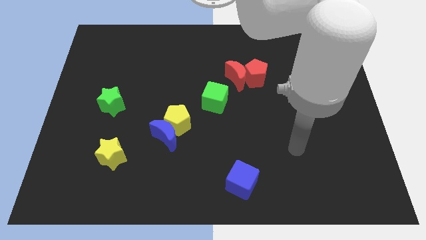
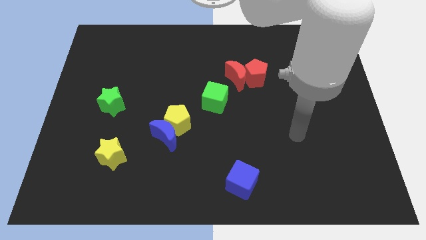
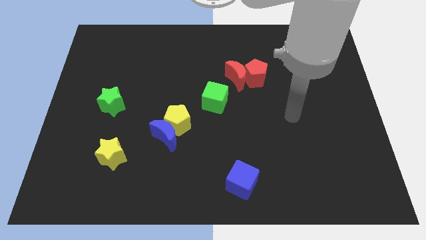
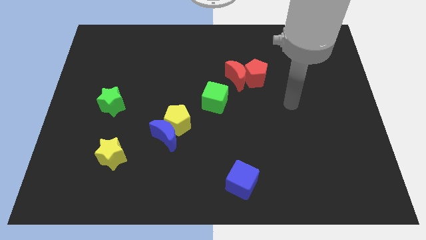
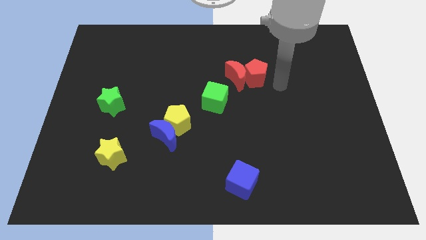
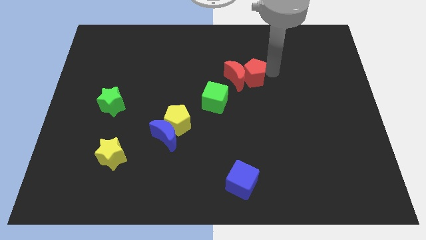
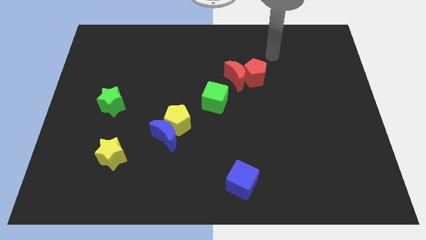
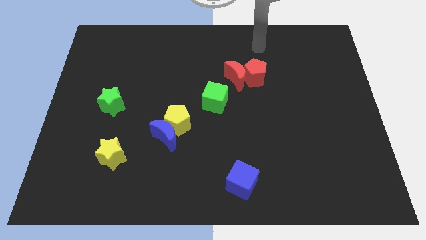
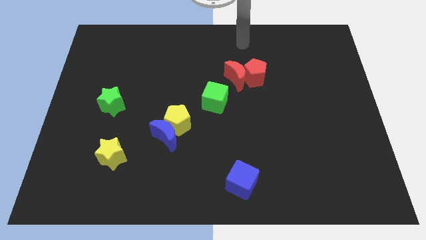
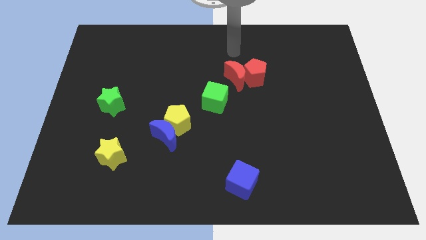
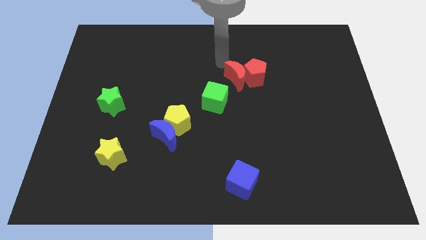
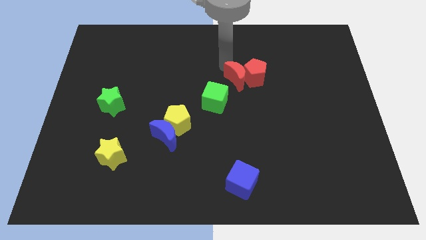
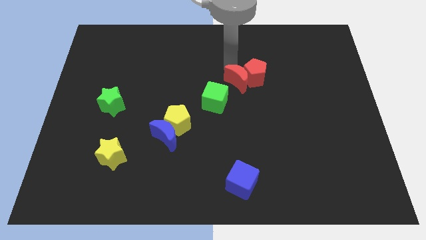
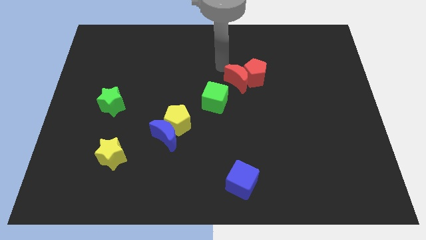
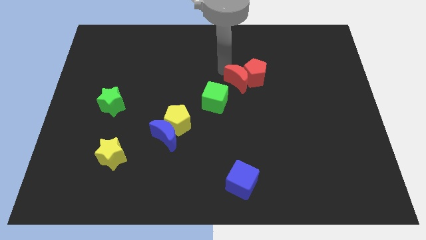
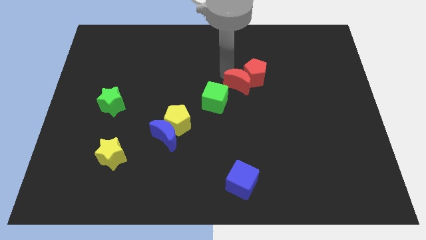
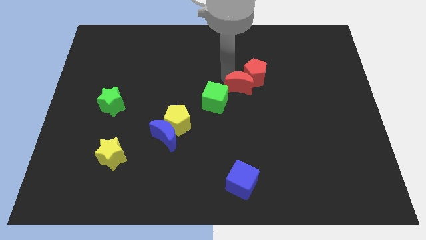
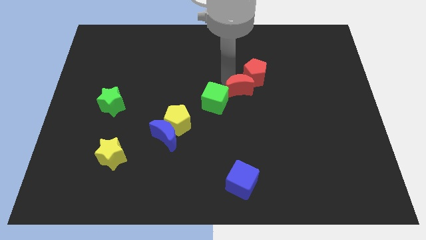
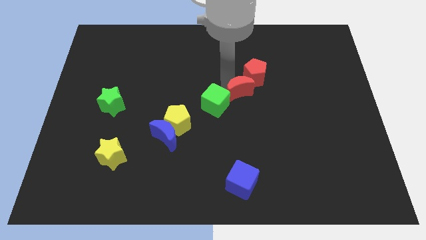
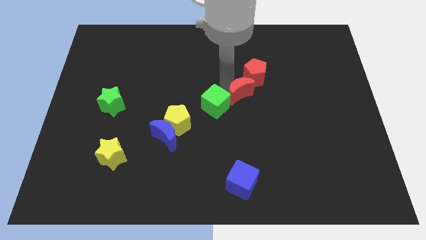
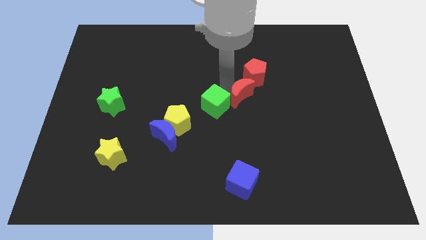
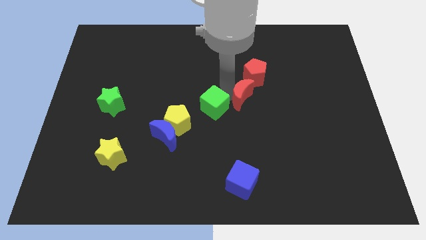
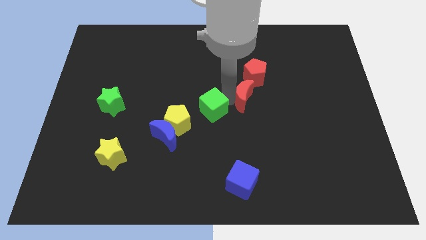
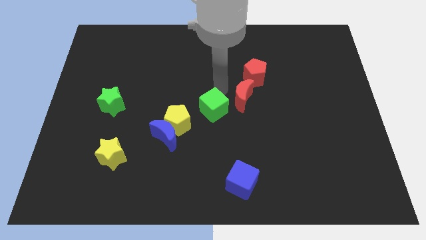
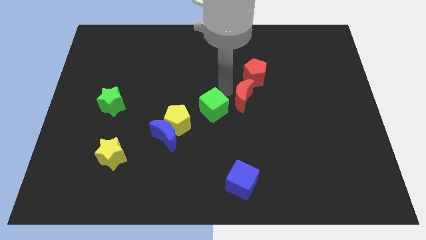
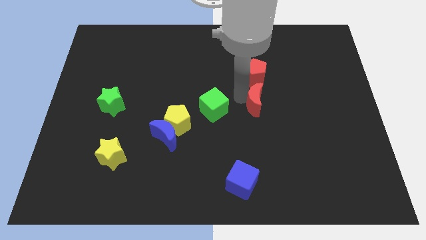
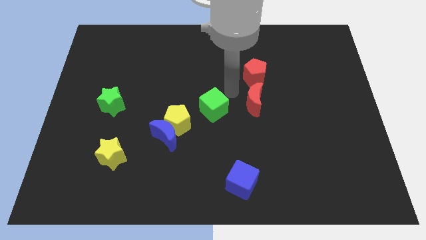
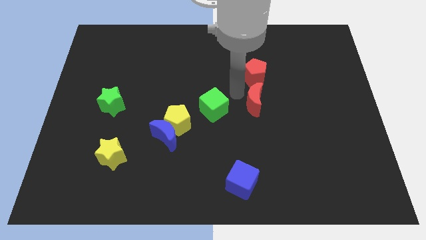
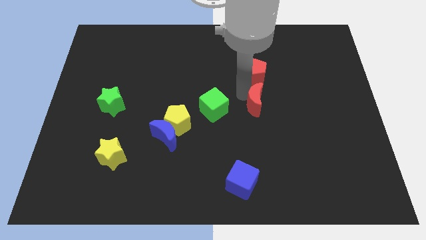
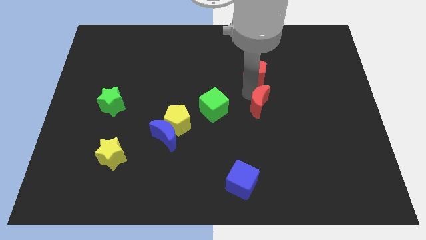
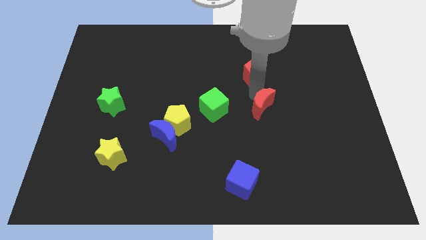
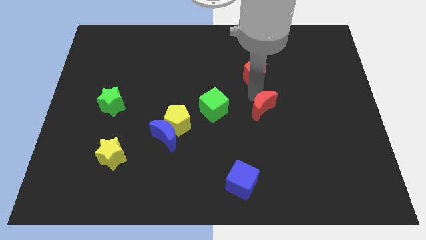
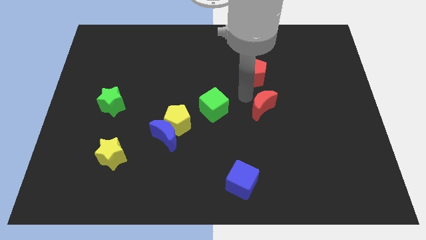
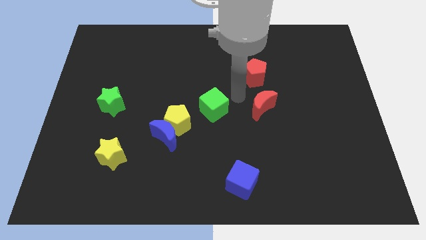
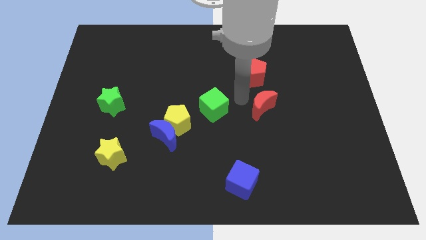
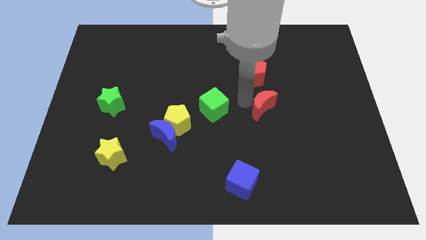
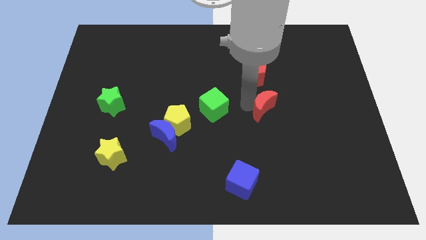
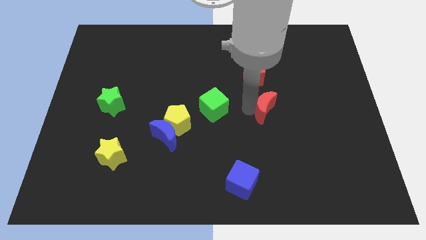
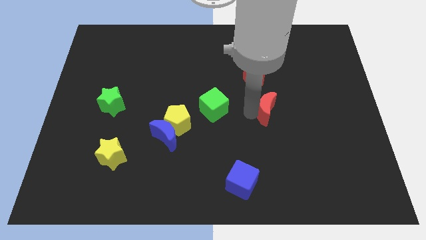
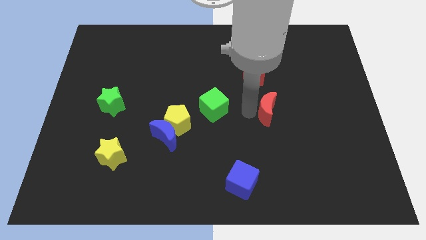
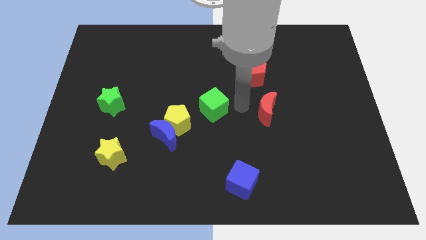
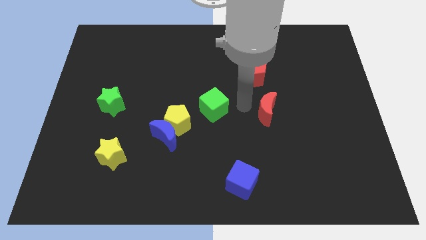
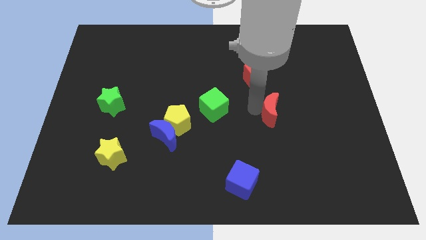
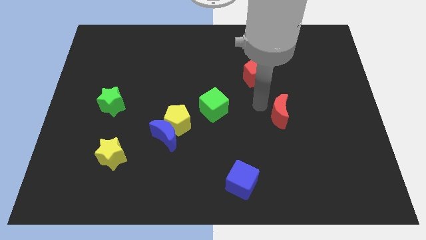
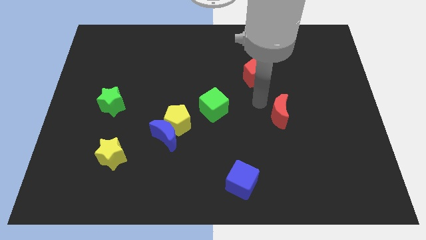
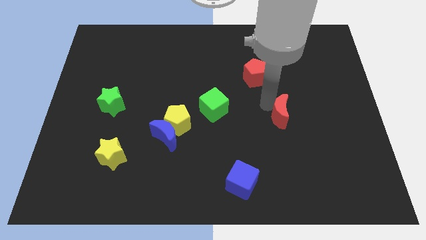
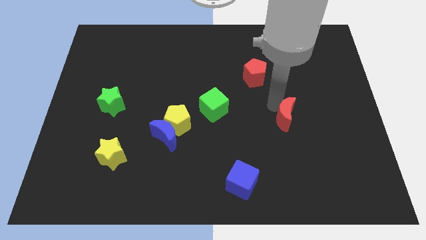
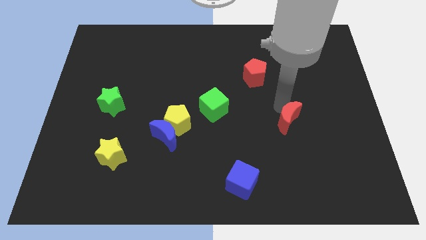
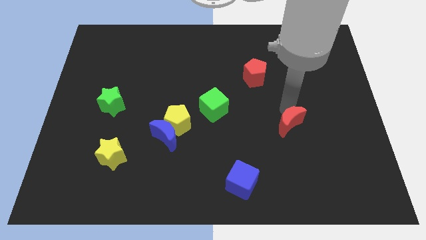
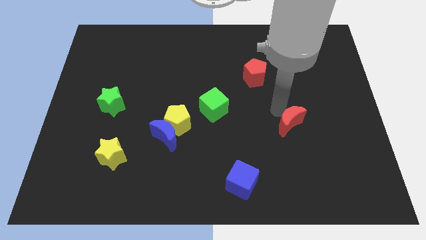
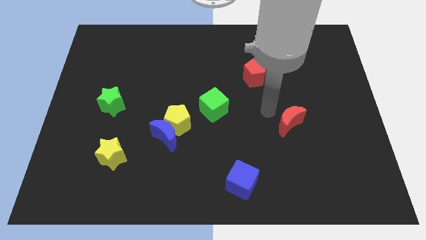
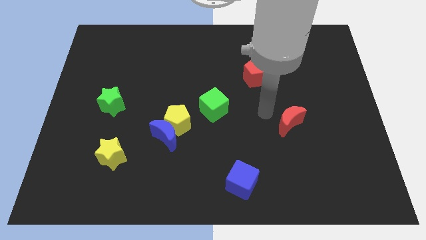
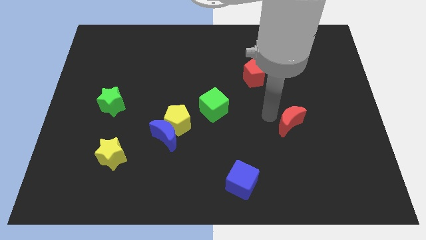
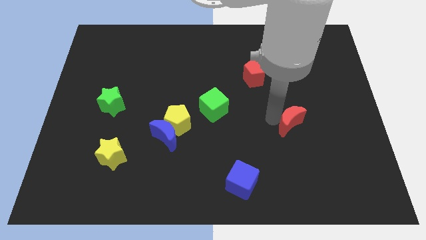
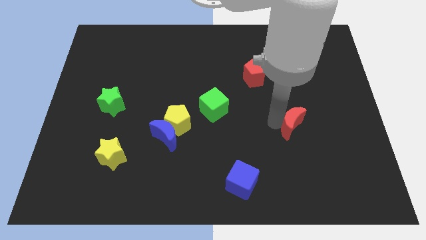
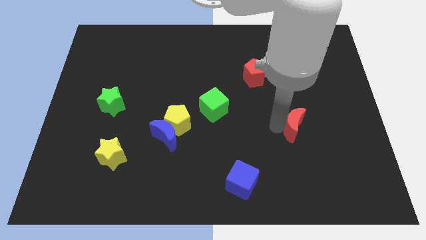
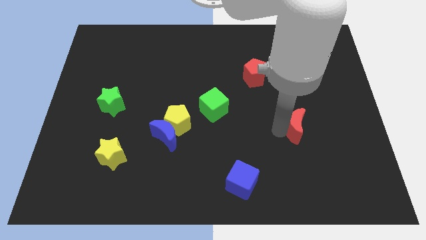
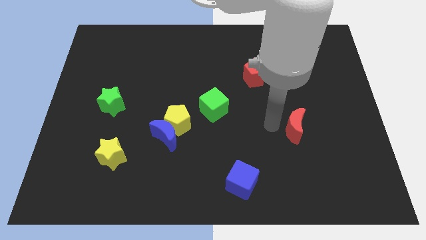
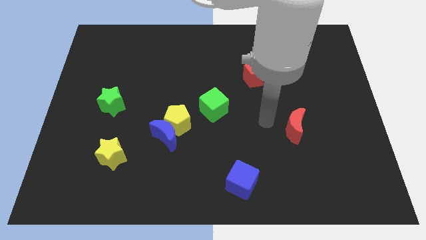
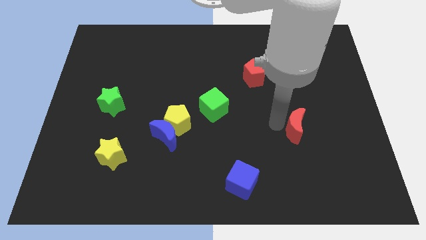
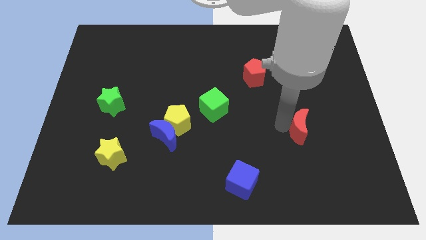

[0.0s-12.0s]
push the red moon diagonally downwards and to the right

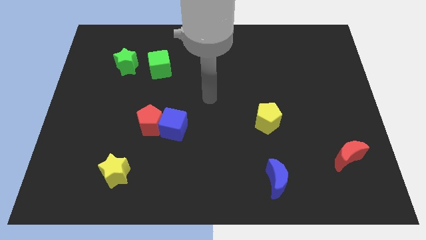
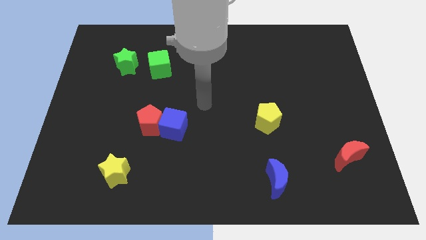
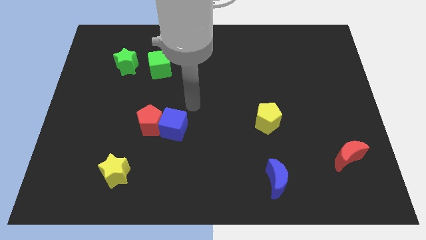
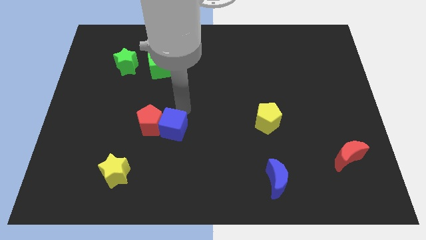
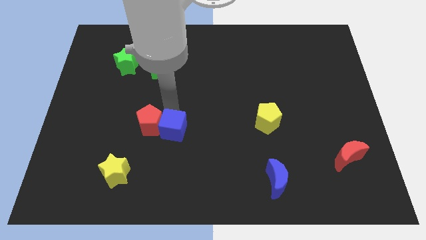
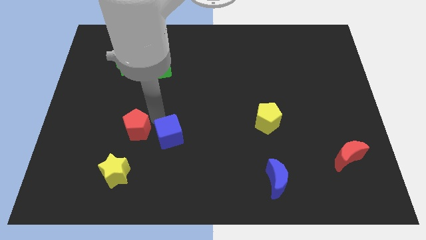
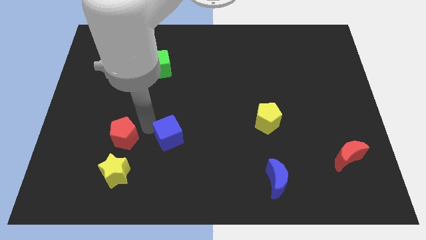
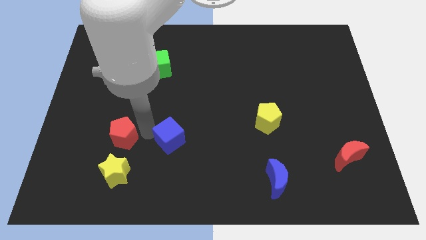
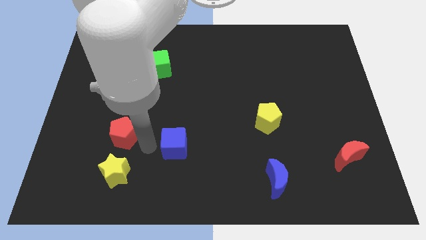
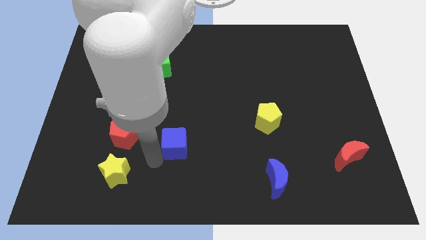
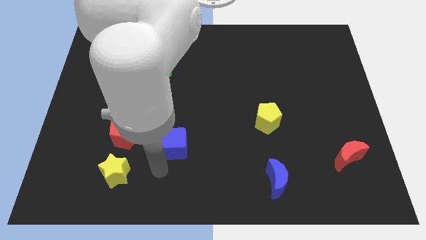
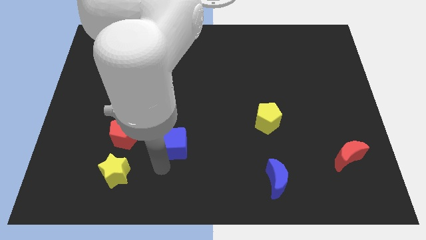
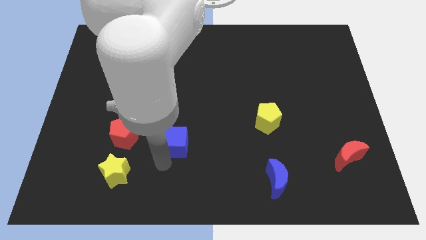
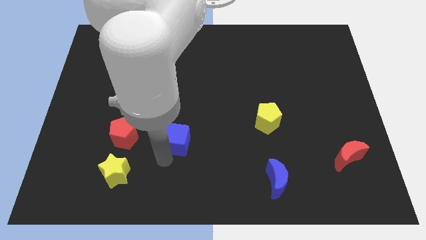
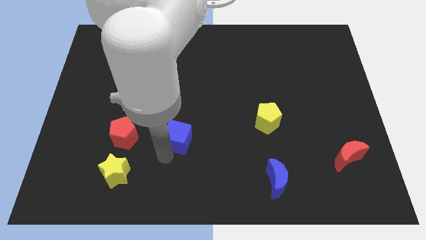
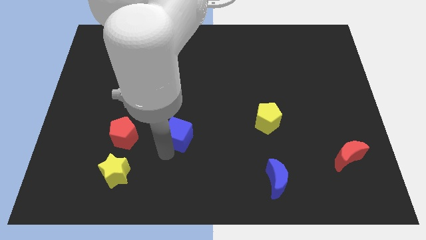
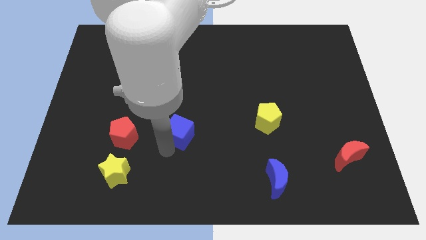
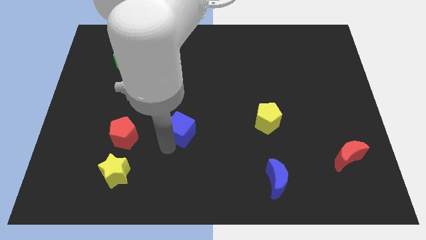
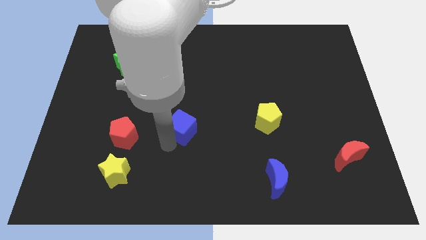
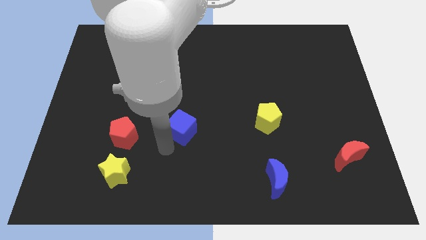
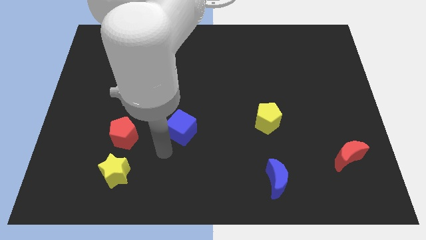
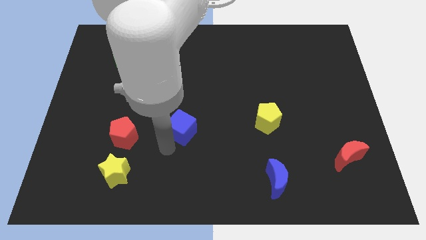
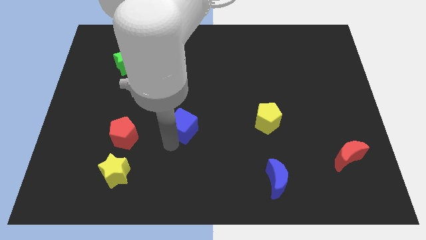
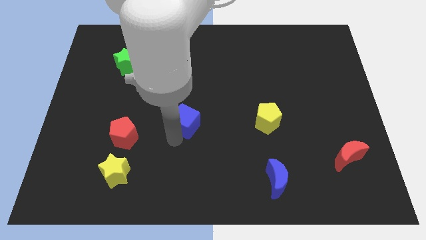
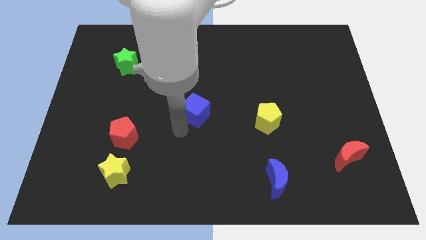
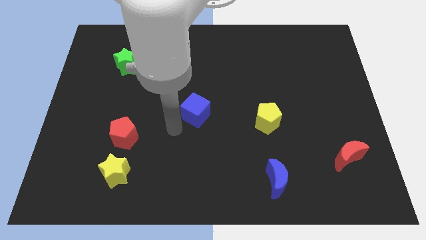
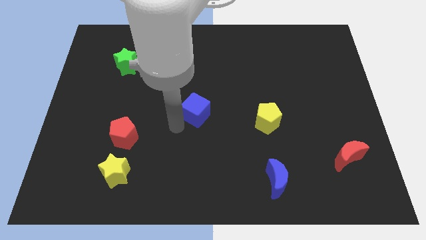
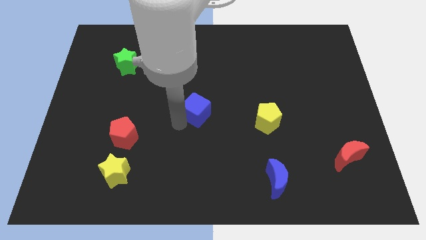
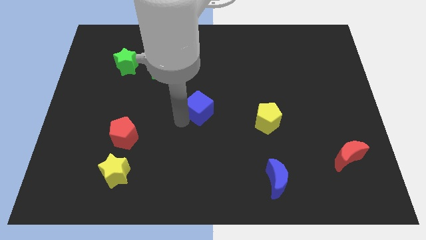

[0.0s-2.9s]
push the blue cube upwards and to the right diagonally a bit
